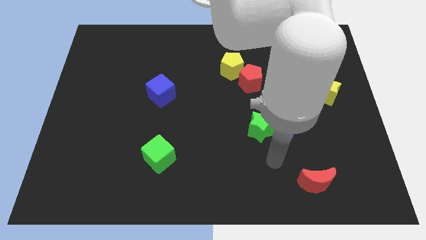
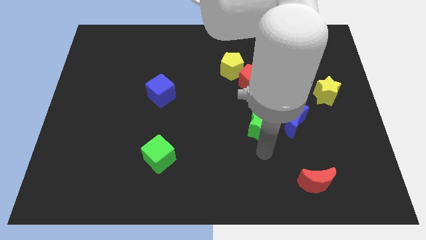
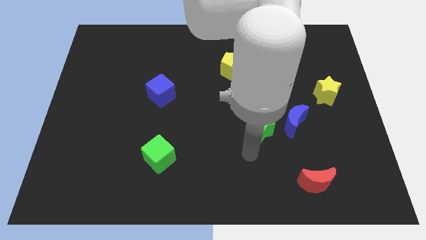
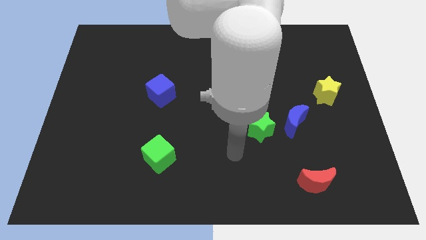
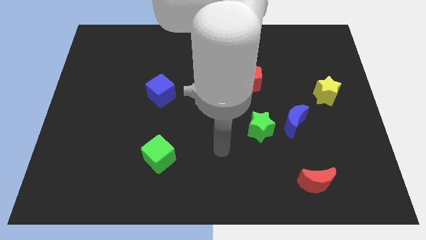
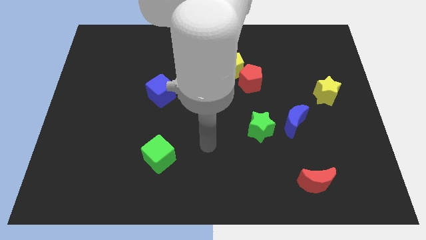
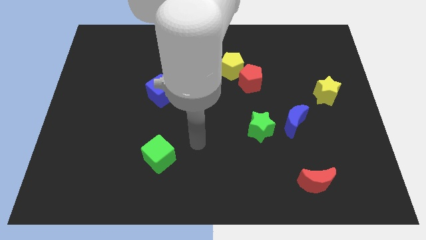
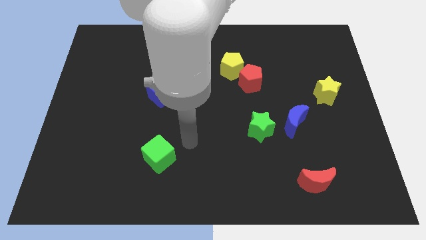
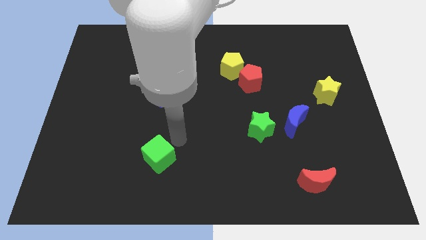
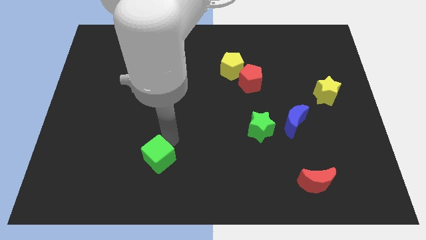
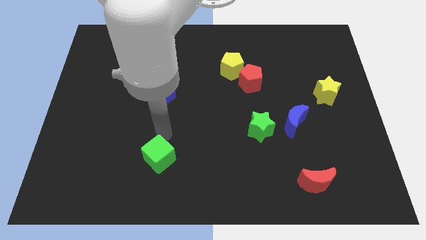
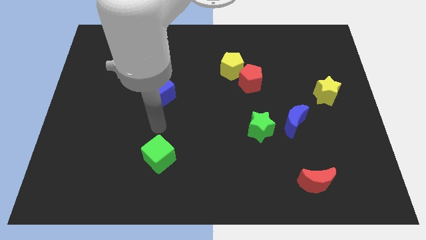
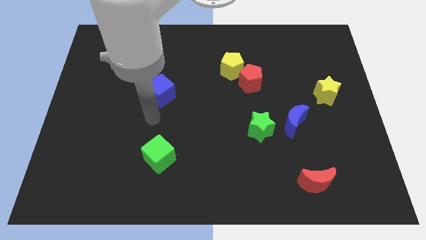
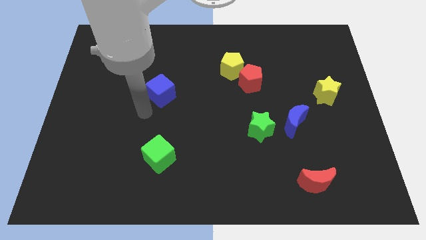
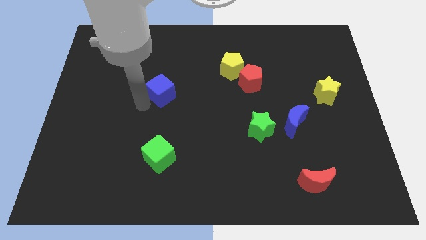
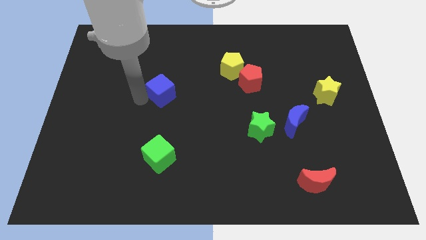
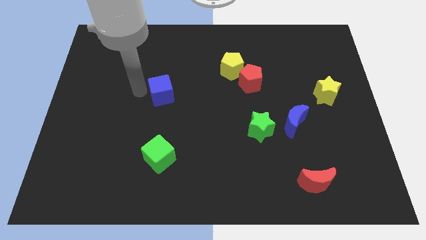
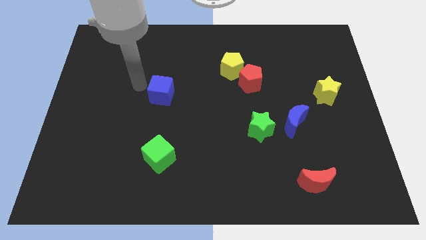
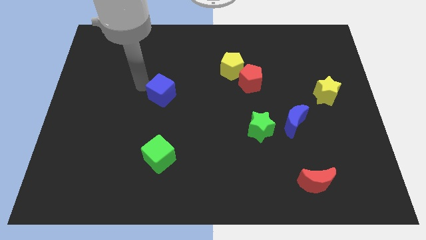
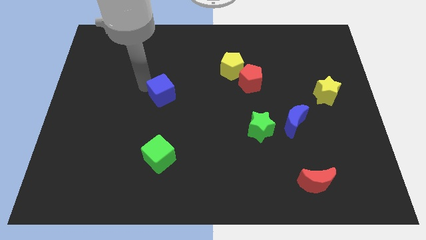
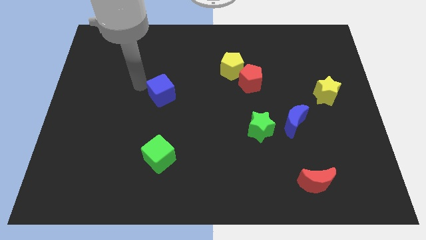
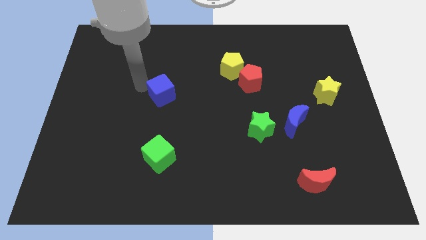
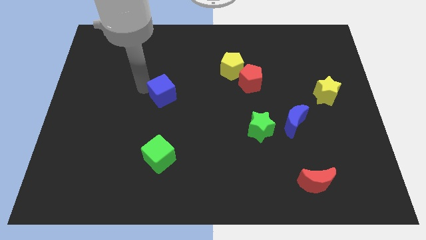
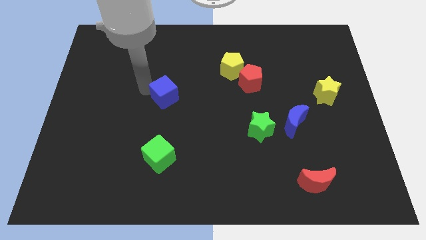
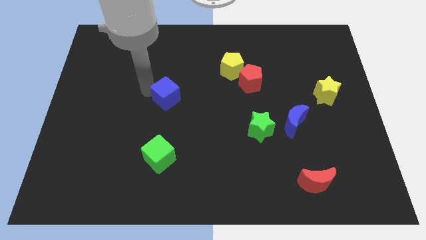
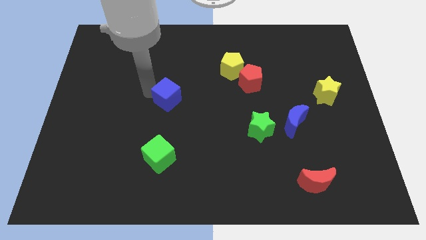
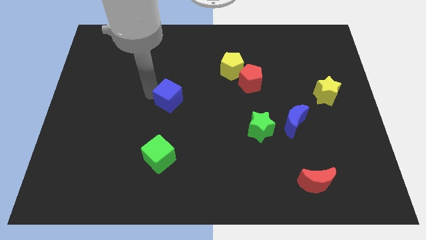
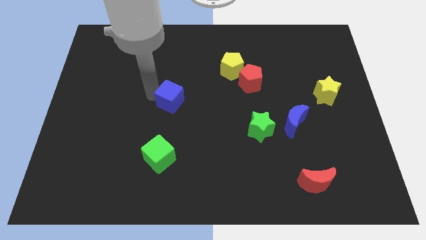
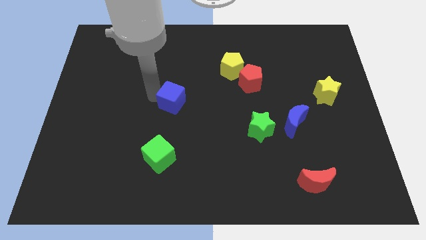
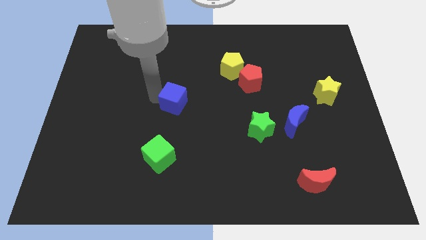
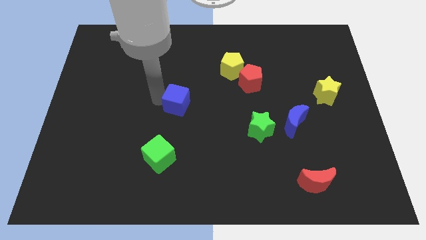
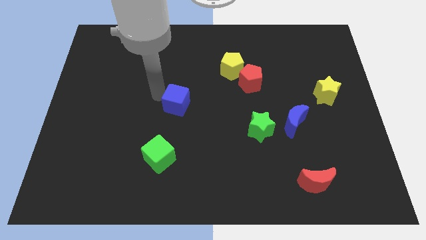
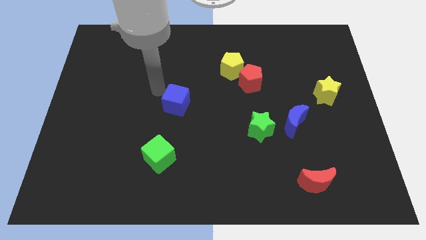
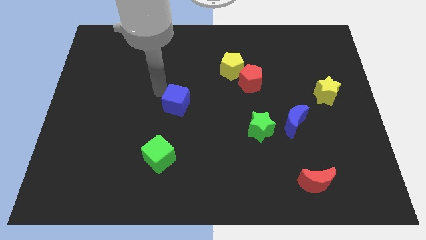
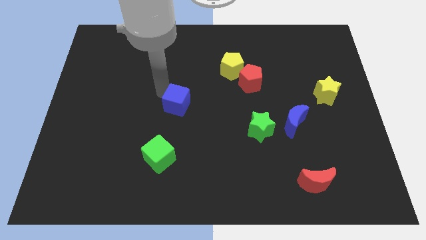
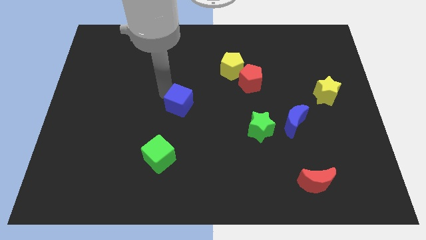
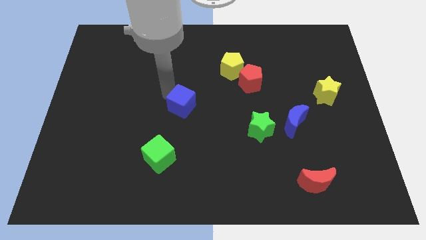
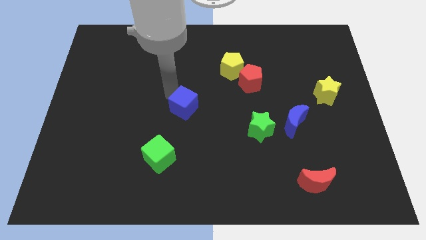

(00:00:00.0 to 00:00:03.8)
move the blue cube a bit downwards and to the right

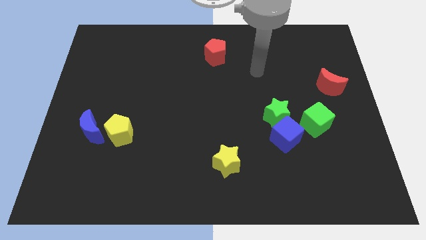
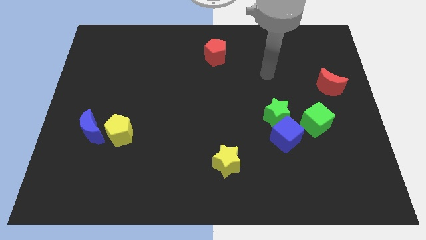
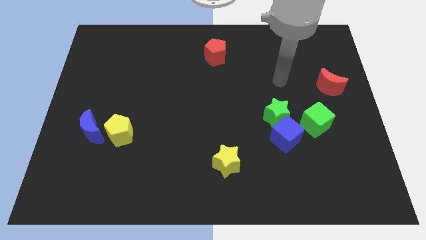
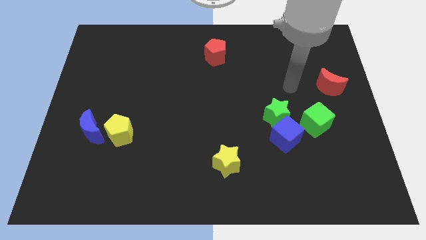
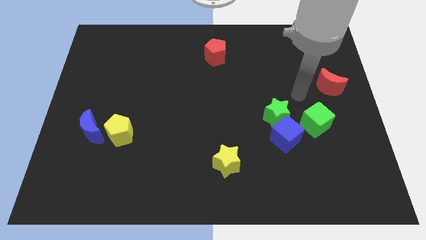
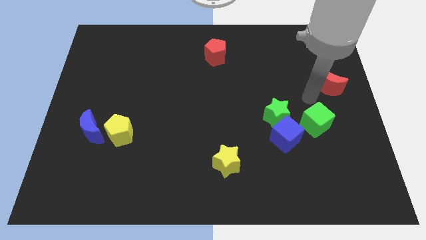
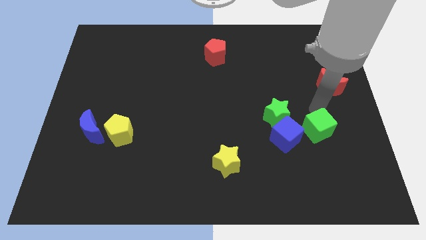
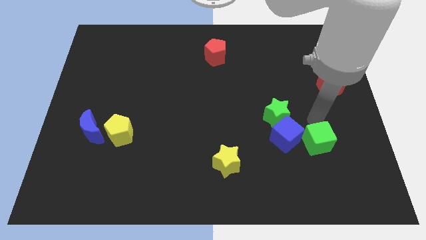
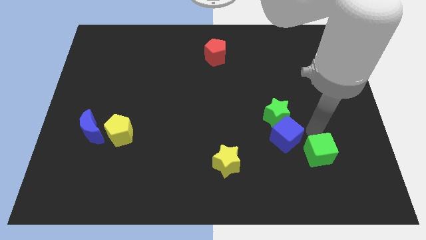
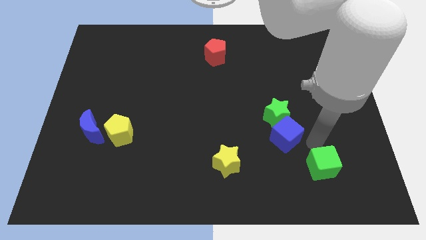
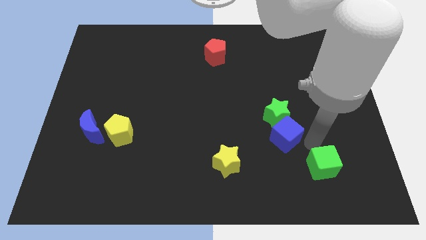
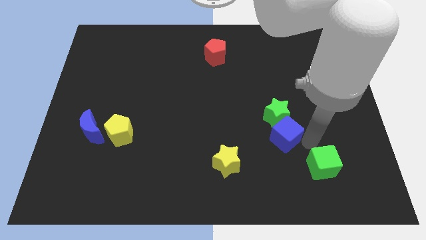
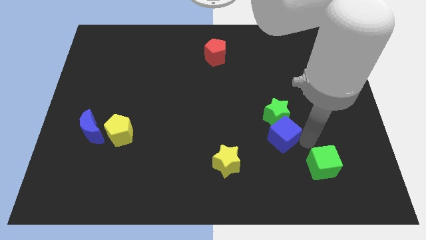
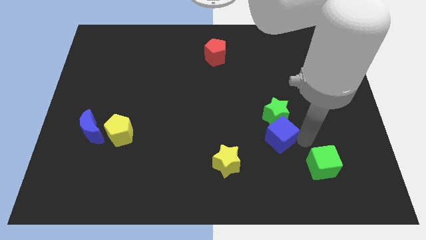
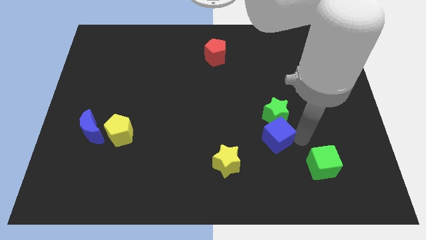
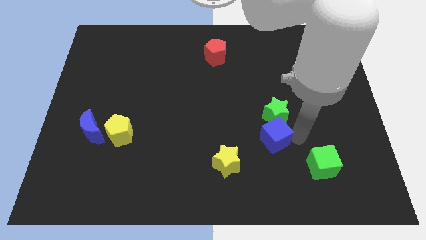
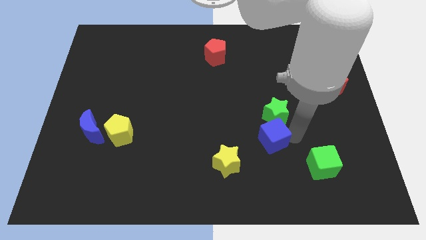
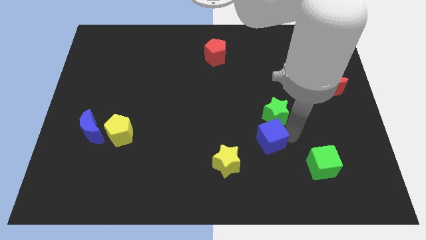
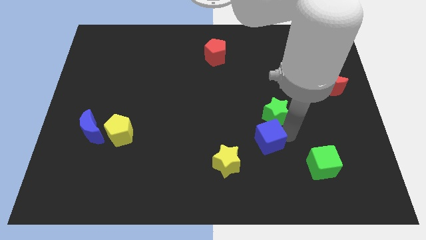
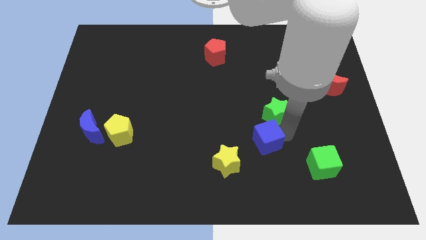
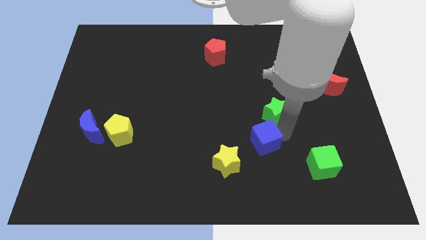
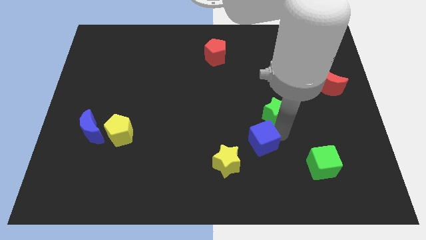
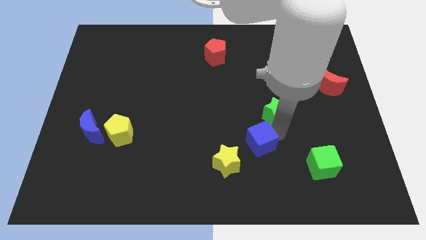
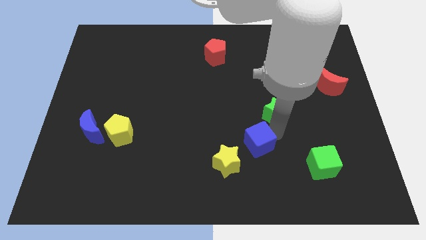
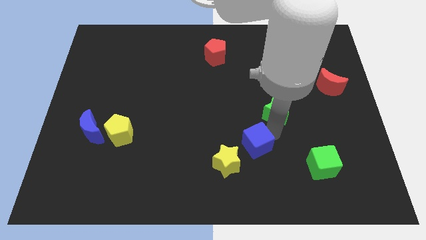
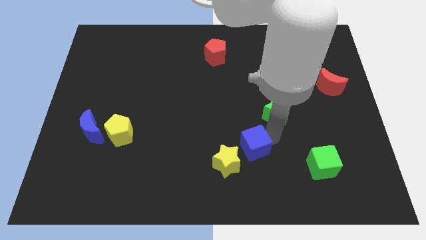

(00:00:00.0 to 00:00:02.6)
slightly slide the blue cube left

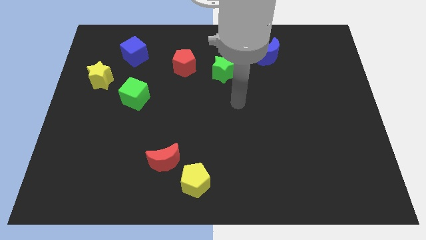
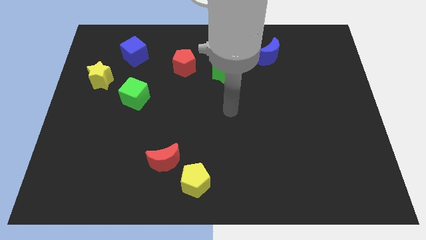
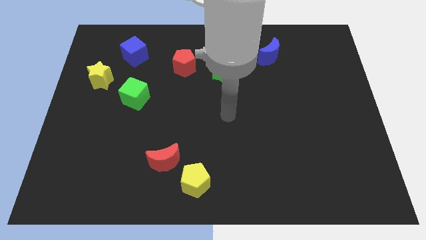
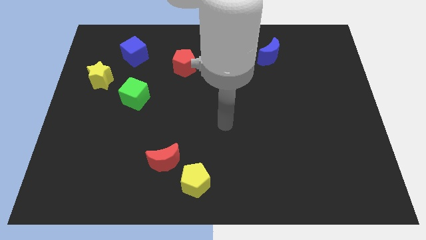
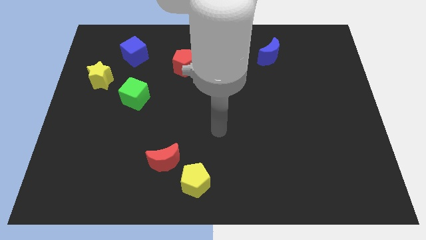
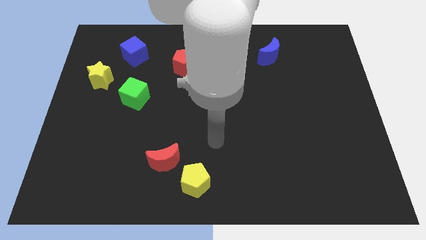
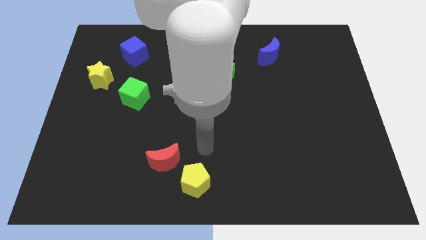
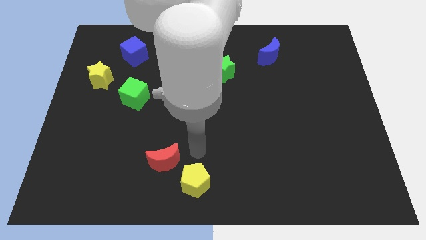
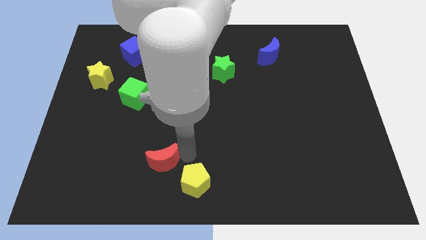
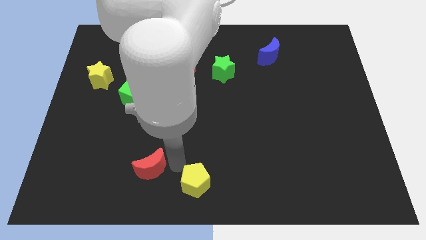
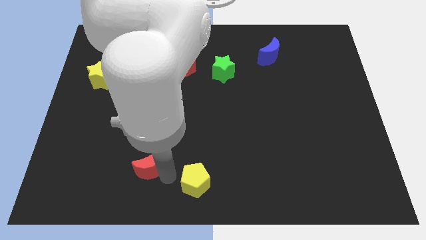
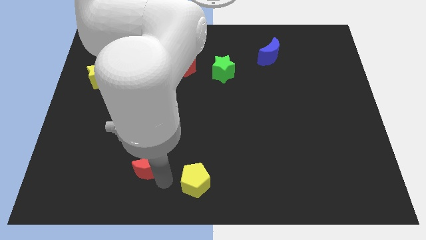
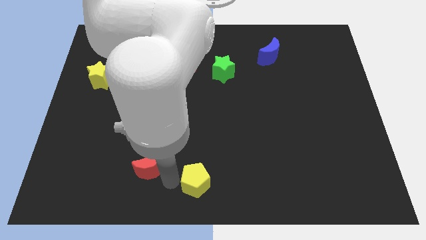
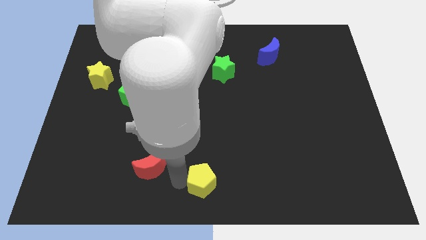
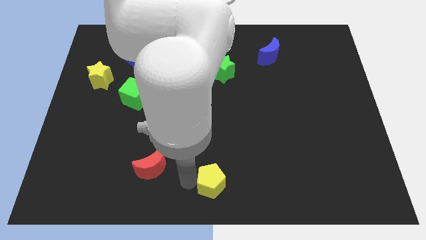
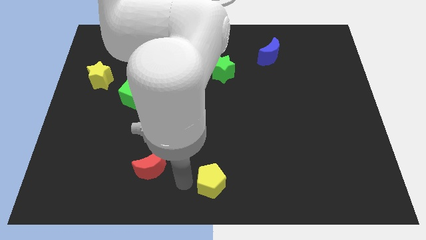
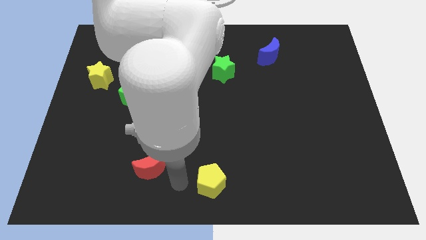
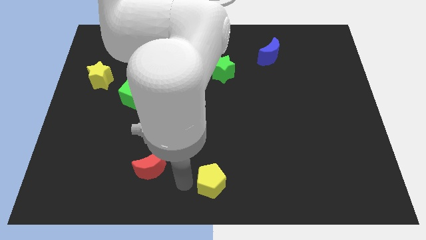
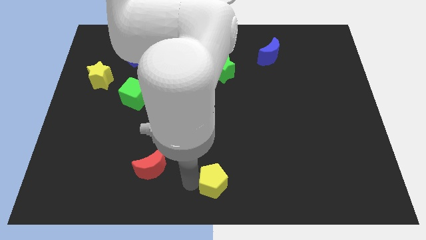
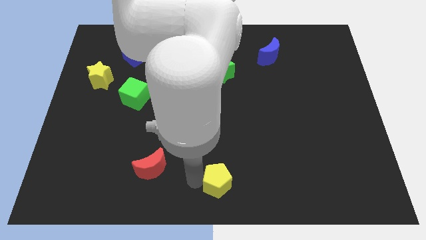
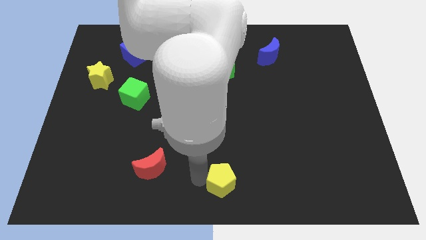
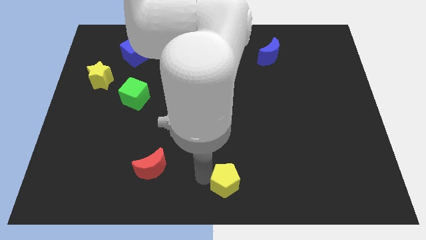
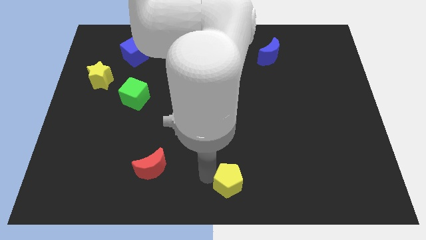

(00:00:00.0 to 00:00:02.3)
slightly push the yellow pentagon right
